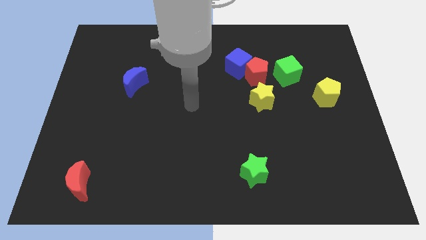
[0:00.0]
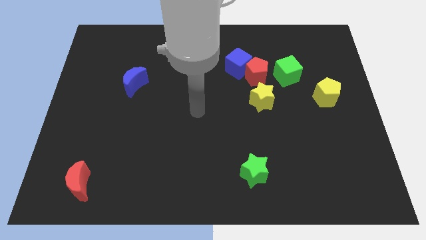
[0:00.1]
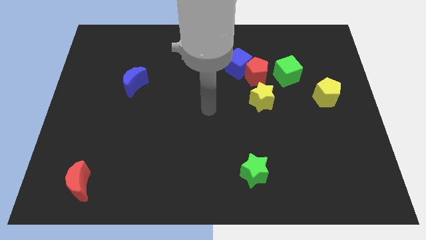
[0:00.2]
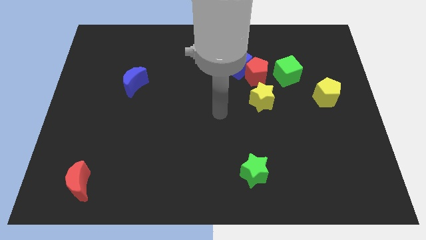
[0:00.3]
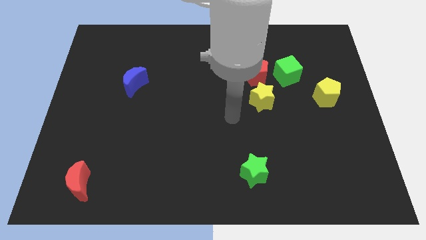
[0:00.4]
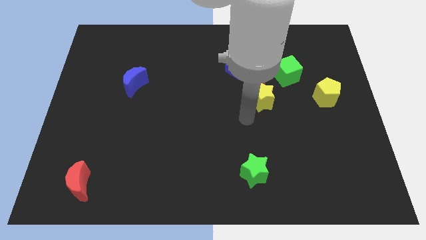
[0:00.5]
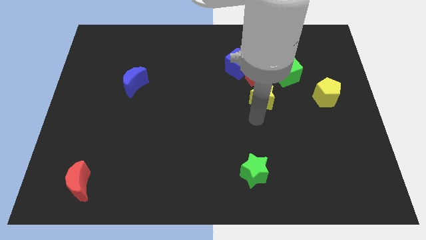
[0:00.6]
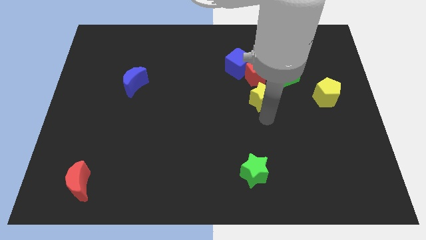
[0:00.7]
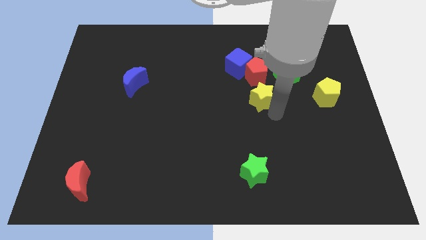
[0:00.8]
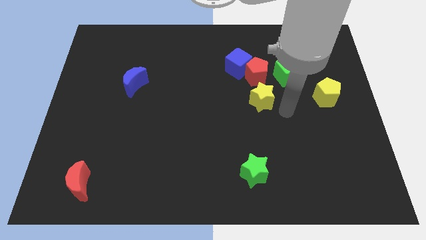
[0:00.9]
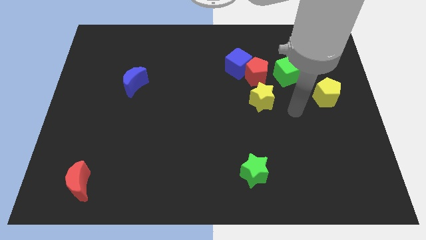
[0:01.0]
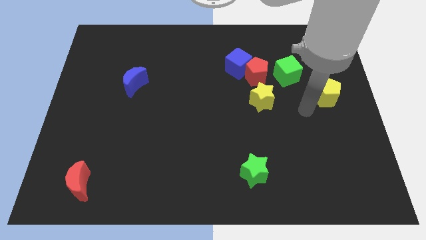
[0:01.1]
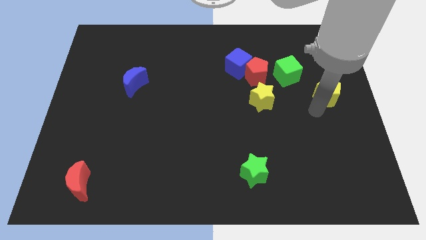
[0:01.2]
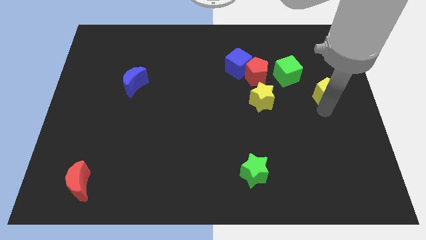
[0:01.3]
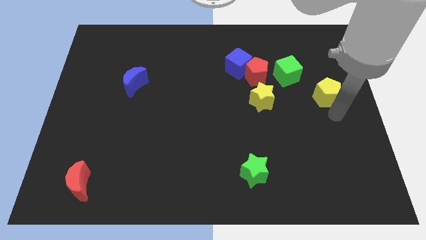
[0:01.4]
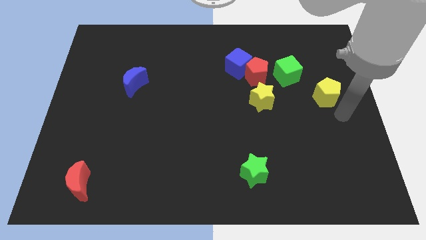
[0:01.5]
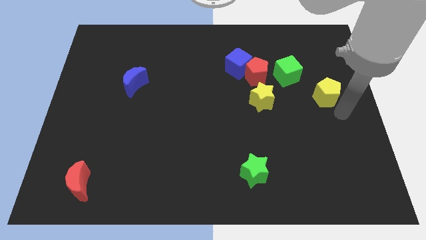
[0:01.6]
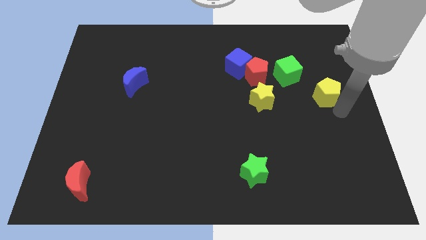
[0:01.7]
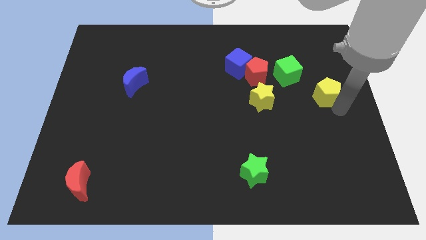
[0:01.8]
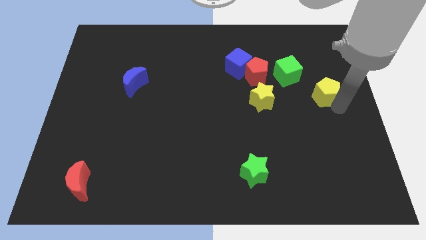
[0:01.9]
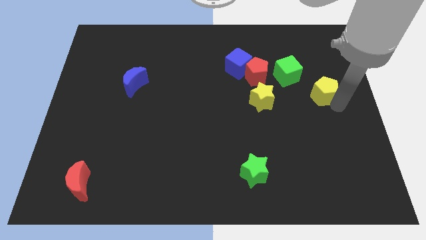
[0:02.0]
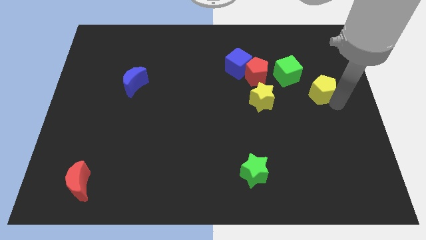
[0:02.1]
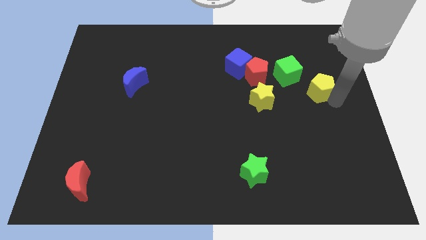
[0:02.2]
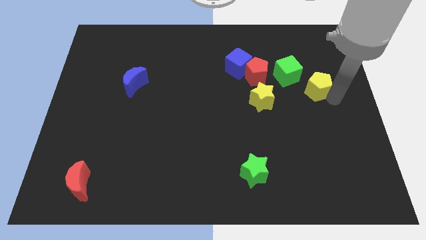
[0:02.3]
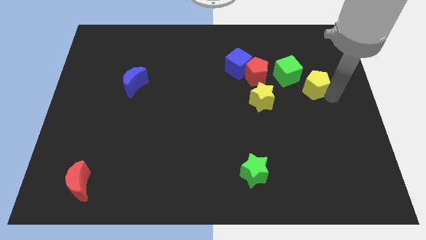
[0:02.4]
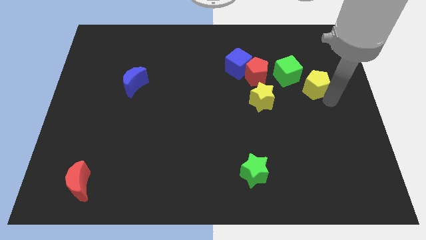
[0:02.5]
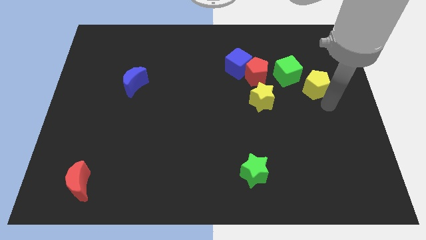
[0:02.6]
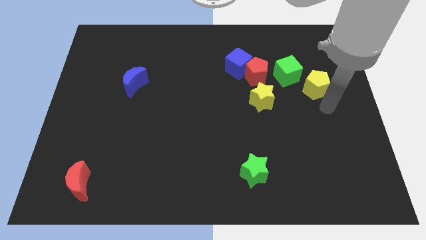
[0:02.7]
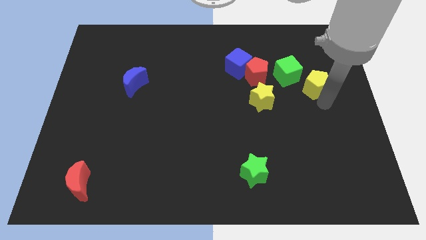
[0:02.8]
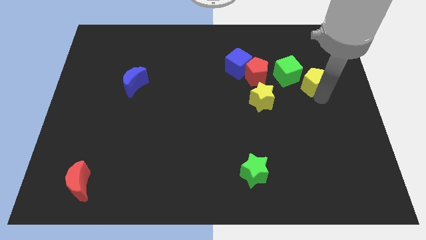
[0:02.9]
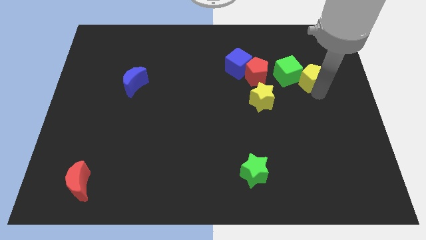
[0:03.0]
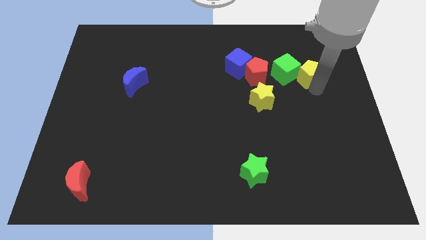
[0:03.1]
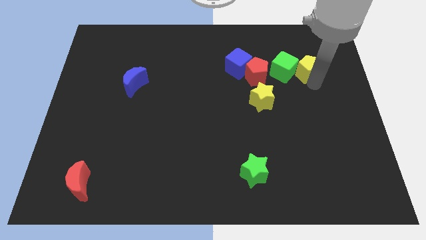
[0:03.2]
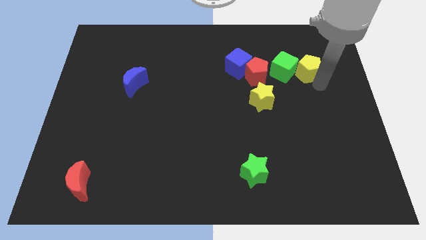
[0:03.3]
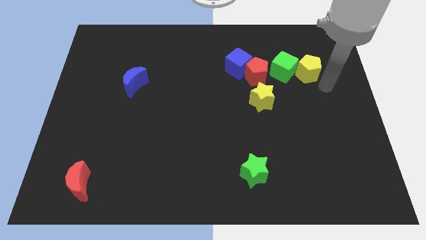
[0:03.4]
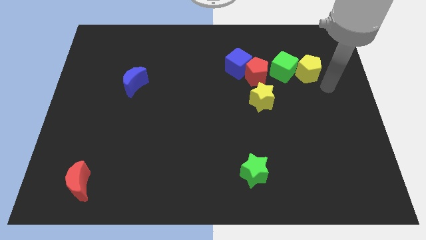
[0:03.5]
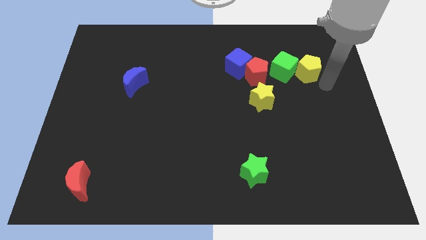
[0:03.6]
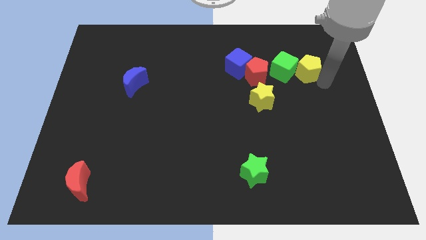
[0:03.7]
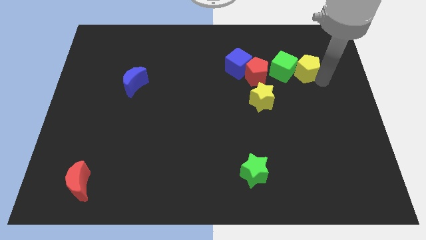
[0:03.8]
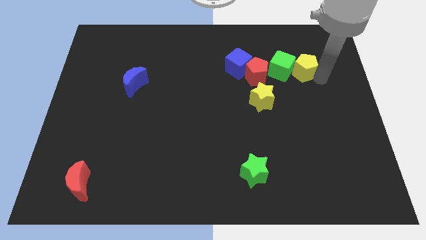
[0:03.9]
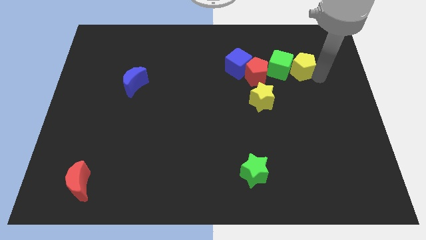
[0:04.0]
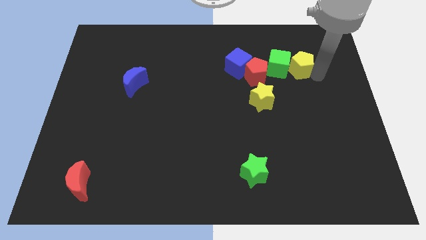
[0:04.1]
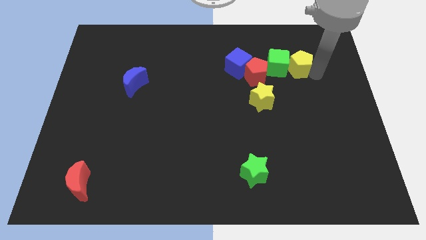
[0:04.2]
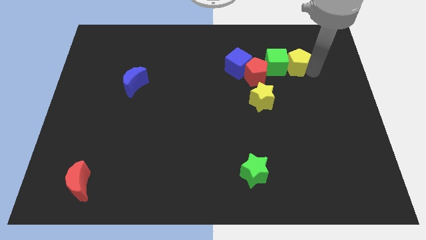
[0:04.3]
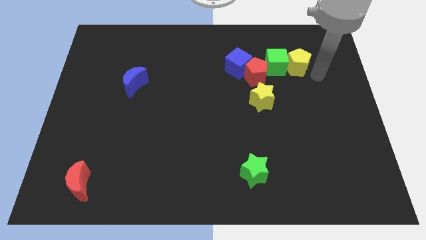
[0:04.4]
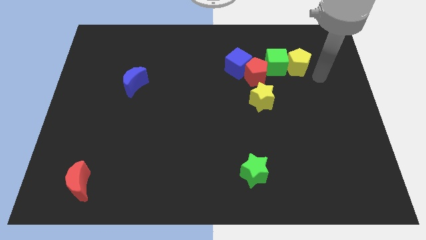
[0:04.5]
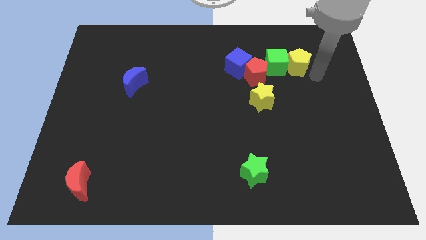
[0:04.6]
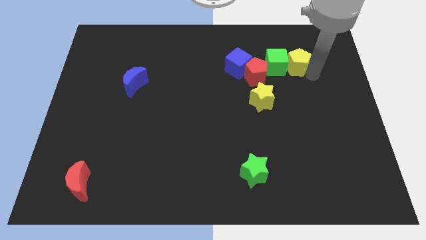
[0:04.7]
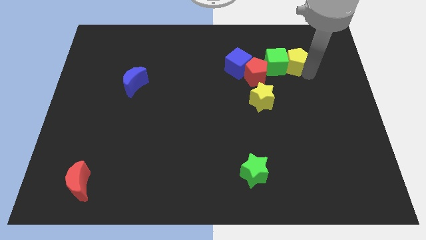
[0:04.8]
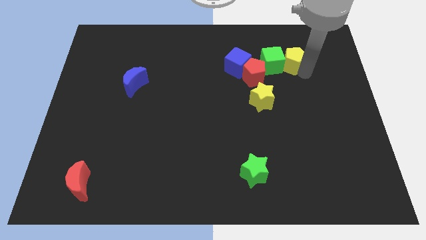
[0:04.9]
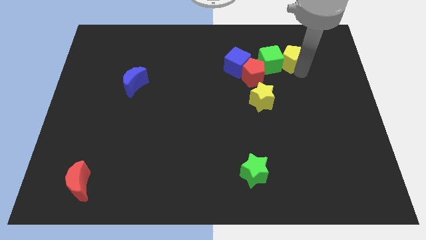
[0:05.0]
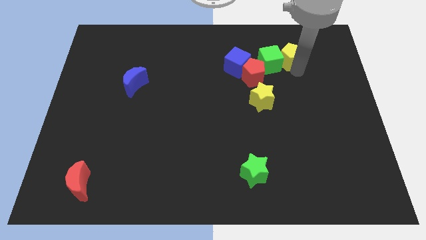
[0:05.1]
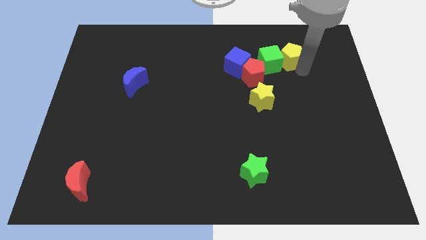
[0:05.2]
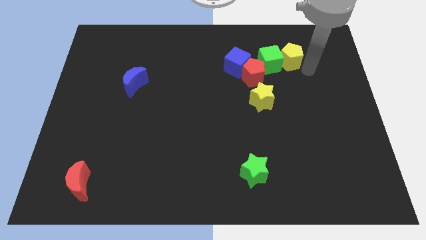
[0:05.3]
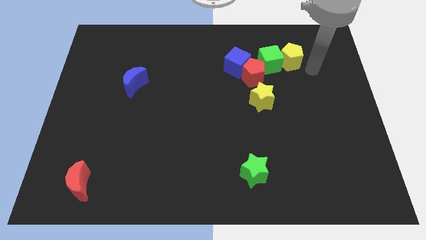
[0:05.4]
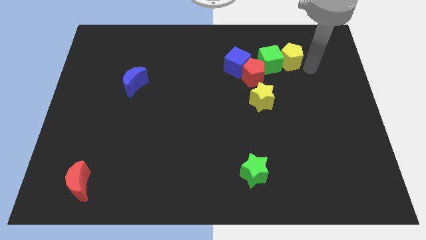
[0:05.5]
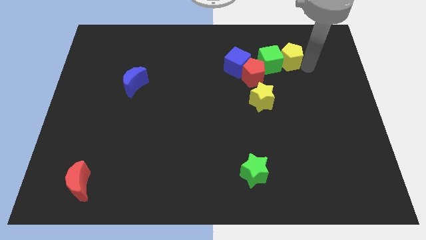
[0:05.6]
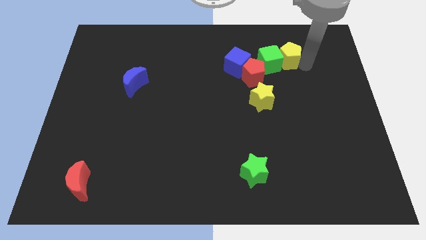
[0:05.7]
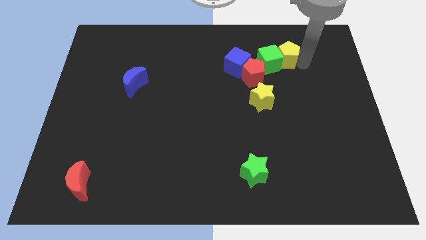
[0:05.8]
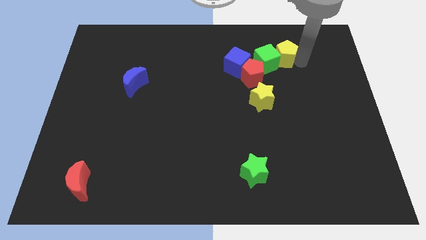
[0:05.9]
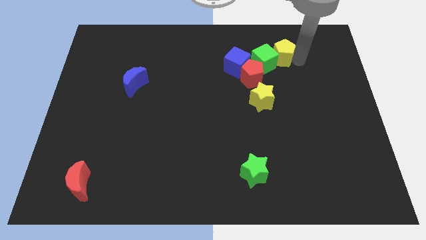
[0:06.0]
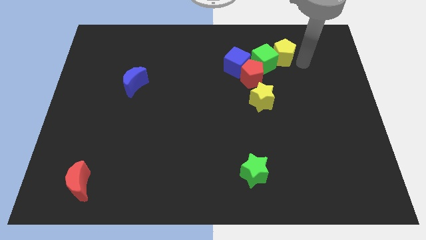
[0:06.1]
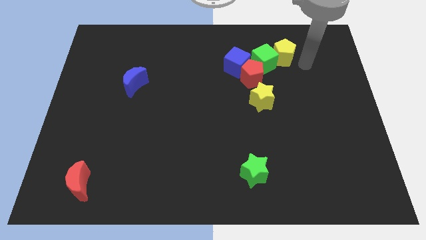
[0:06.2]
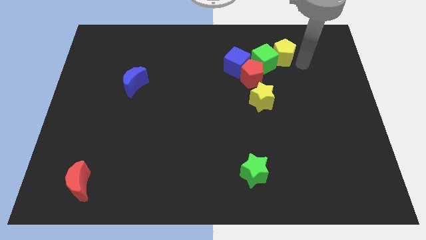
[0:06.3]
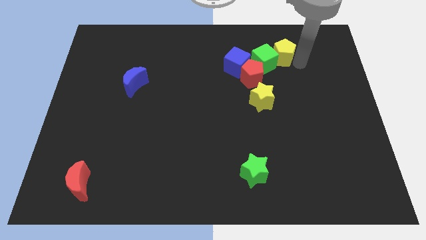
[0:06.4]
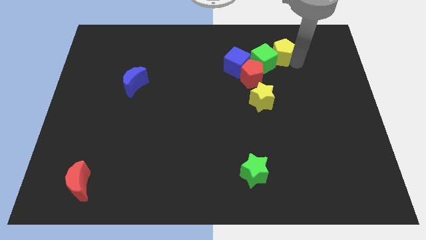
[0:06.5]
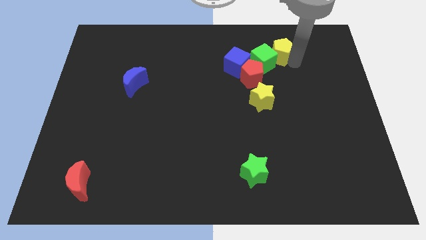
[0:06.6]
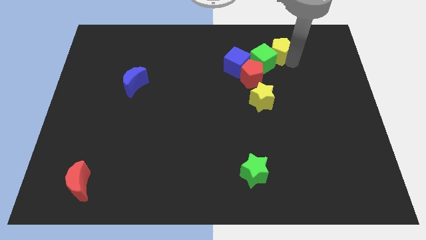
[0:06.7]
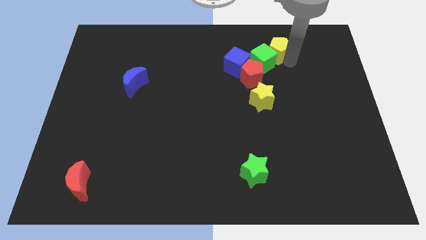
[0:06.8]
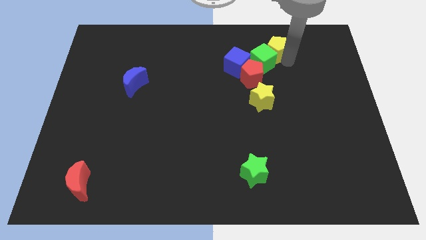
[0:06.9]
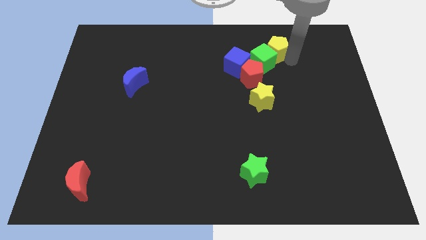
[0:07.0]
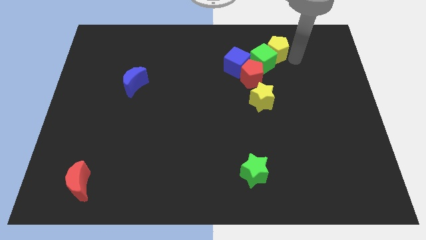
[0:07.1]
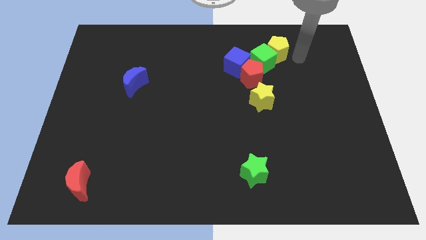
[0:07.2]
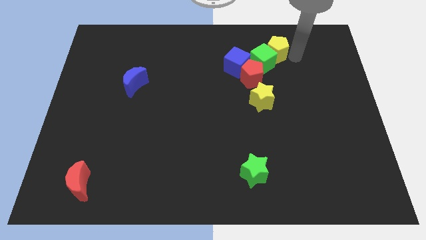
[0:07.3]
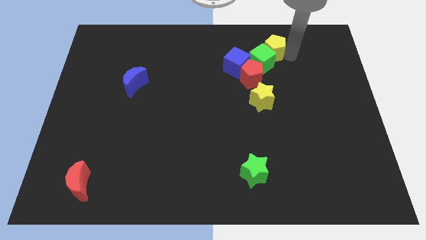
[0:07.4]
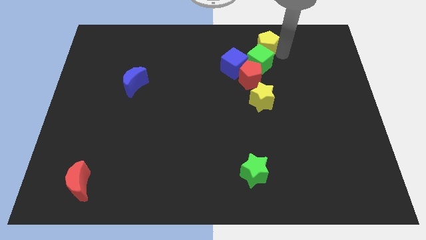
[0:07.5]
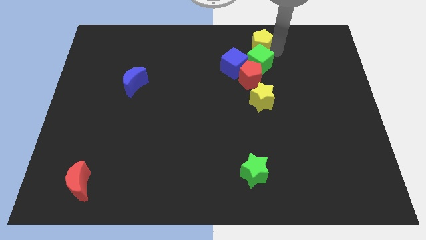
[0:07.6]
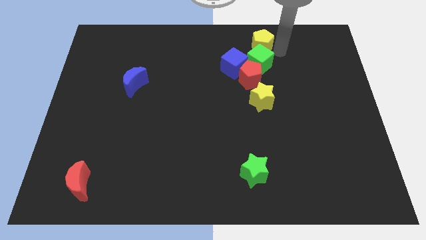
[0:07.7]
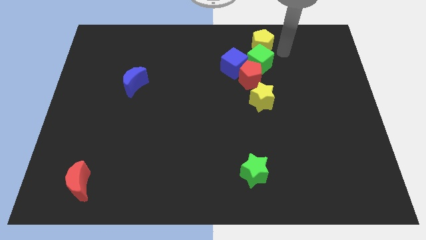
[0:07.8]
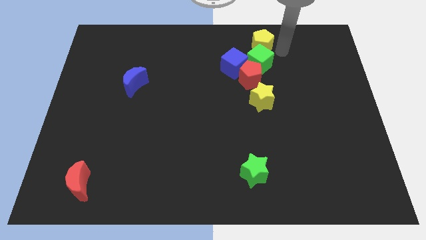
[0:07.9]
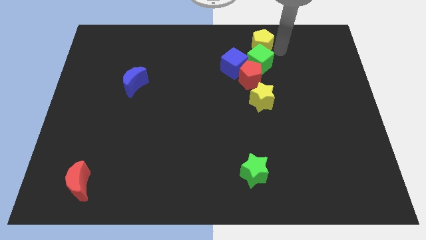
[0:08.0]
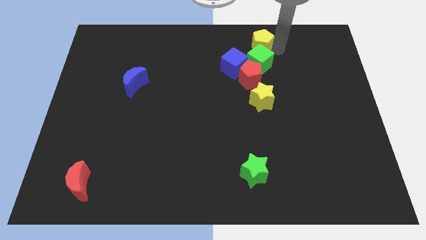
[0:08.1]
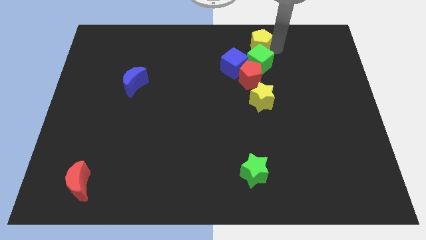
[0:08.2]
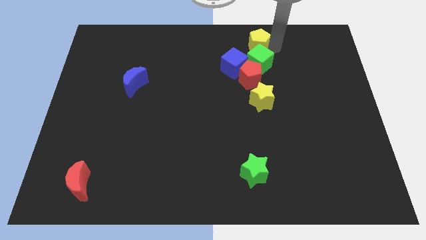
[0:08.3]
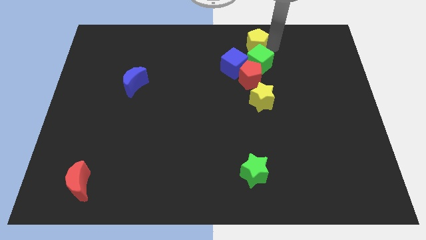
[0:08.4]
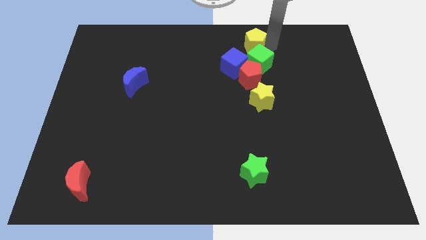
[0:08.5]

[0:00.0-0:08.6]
move the yellow pentagon to the towards your base
